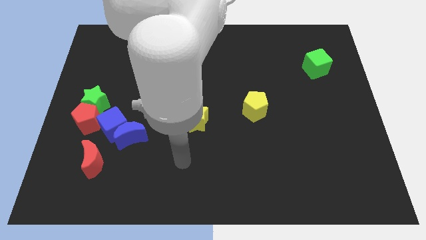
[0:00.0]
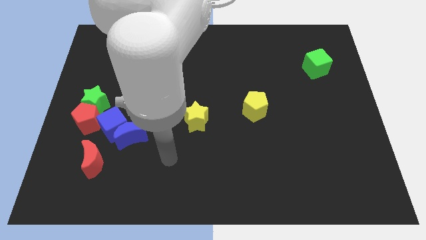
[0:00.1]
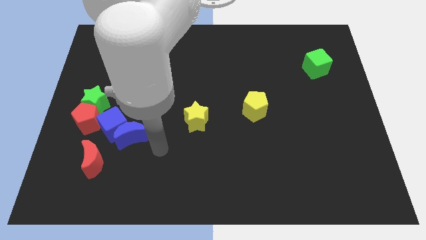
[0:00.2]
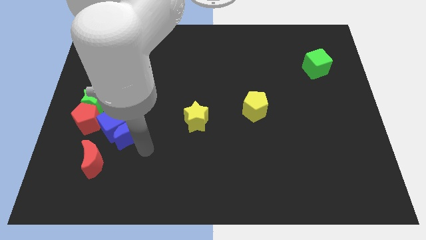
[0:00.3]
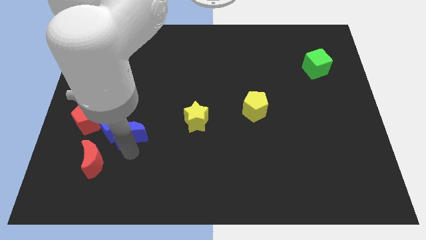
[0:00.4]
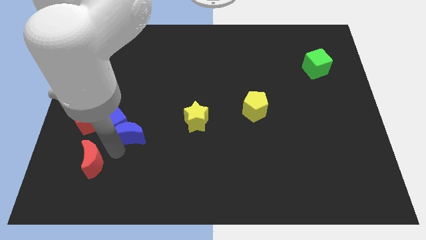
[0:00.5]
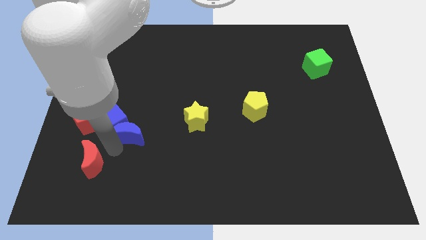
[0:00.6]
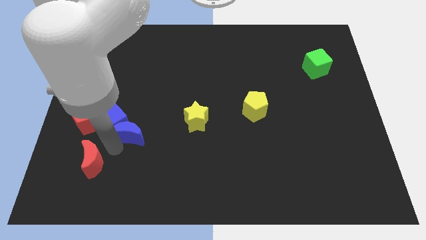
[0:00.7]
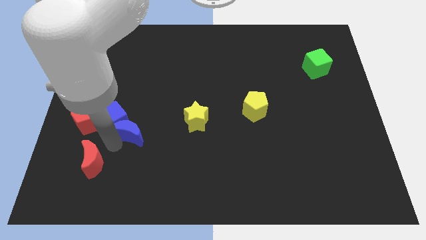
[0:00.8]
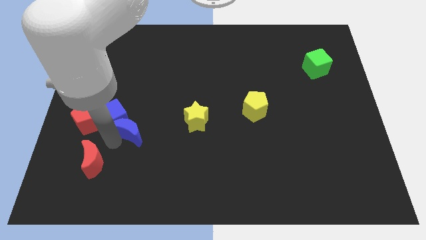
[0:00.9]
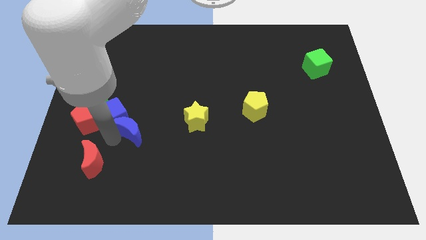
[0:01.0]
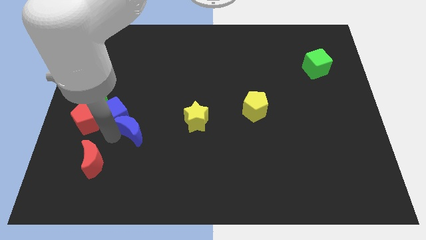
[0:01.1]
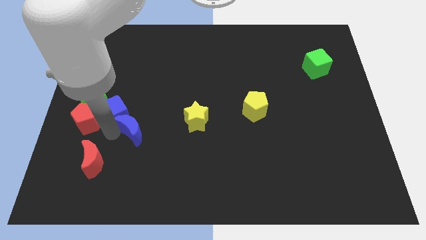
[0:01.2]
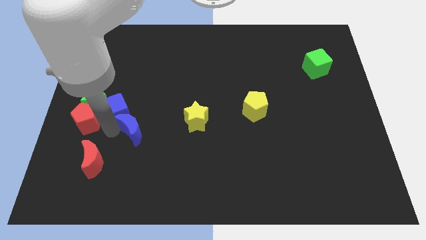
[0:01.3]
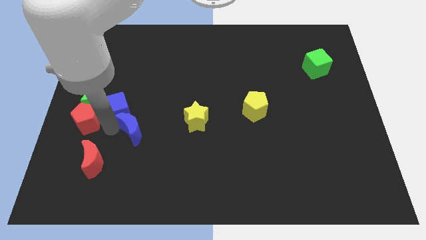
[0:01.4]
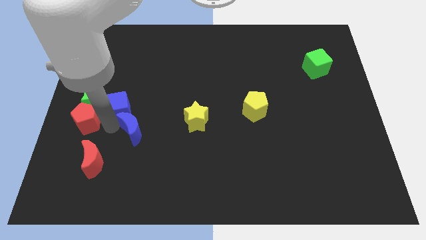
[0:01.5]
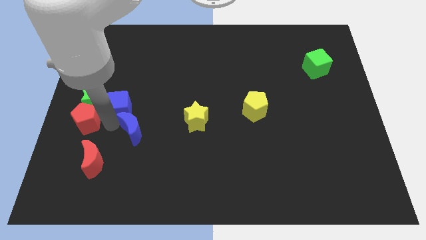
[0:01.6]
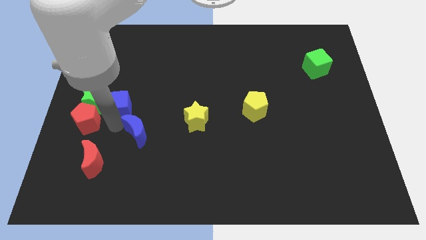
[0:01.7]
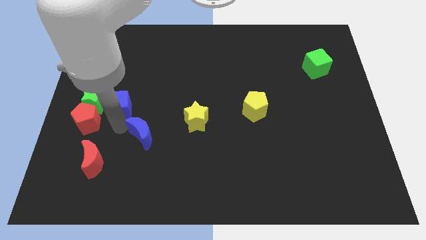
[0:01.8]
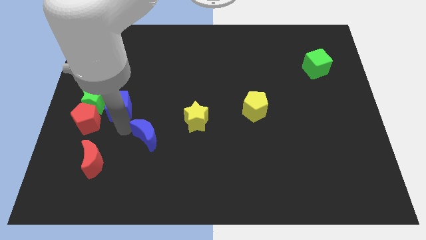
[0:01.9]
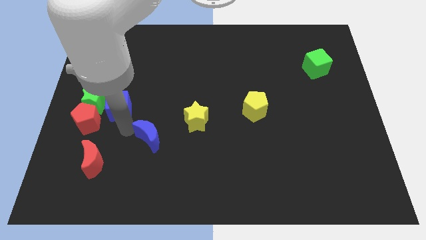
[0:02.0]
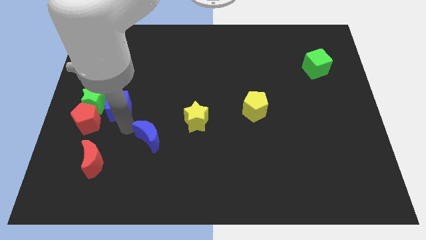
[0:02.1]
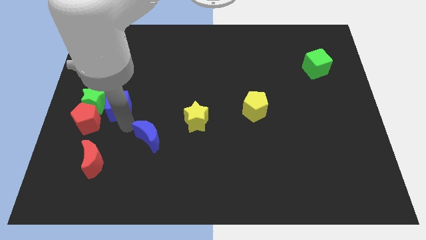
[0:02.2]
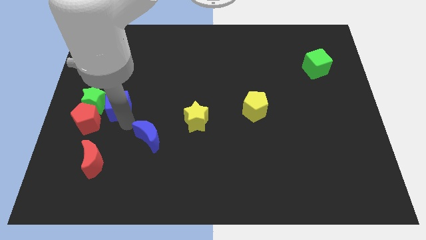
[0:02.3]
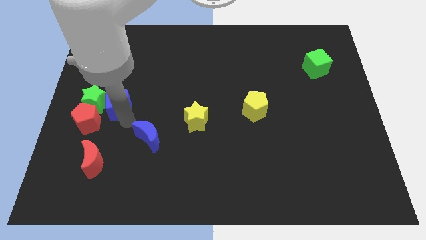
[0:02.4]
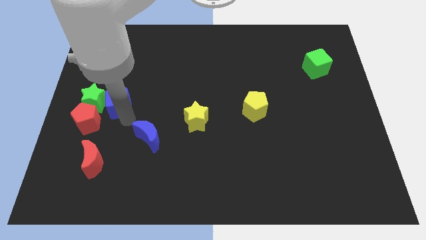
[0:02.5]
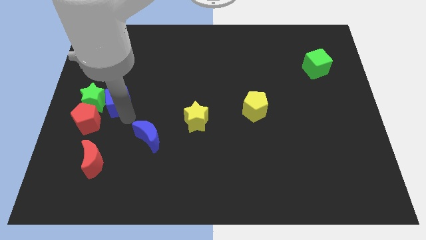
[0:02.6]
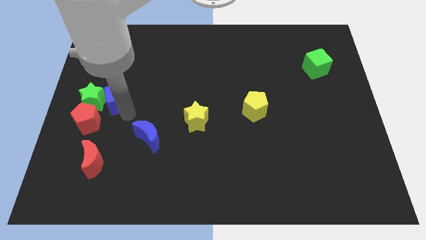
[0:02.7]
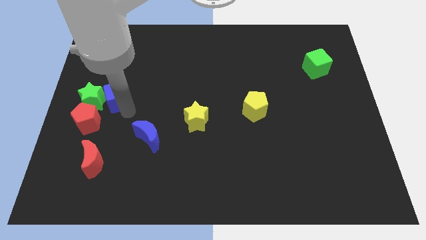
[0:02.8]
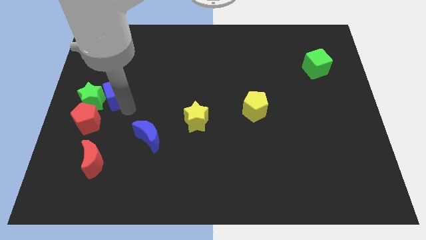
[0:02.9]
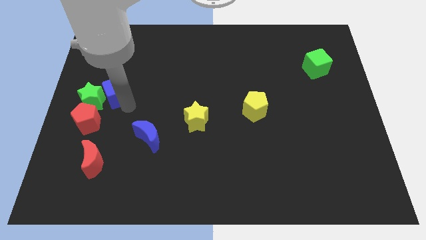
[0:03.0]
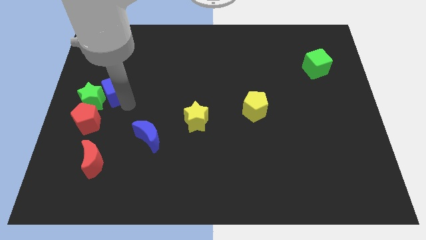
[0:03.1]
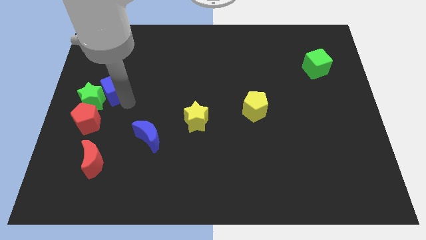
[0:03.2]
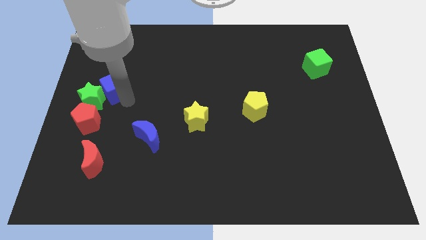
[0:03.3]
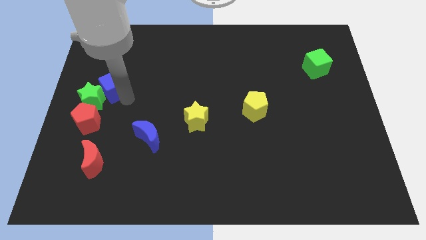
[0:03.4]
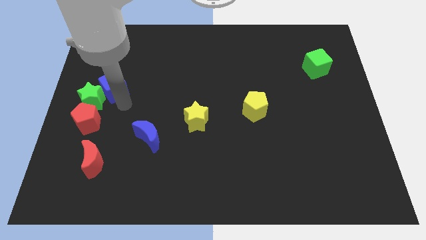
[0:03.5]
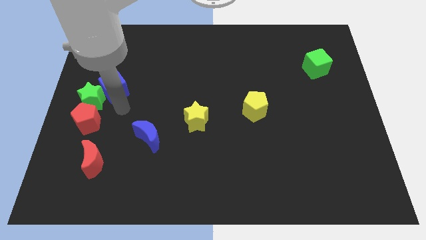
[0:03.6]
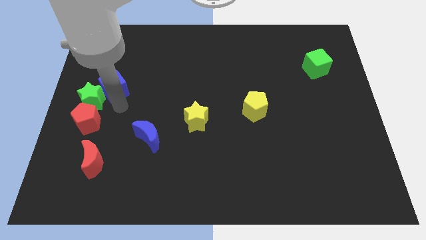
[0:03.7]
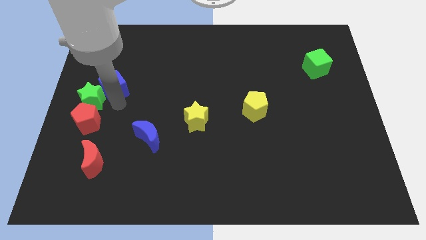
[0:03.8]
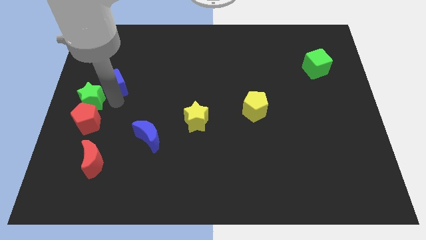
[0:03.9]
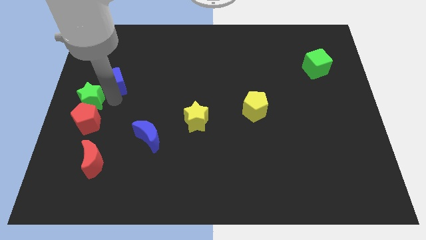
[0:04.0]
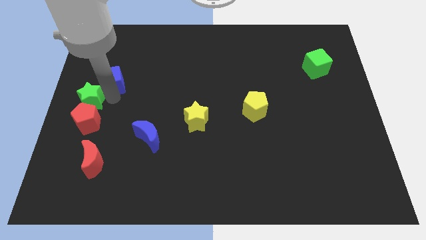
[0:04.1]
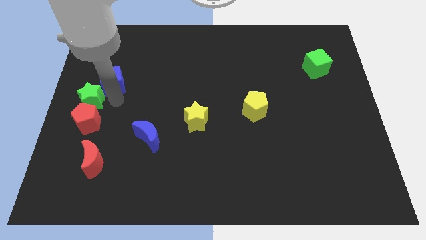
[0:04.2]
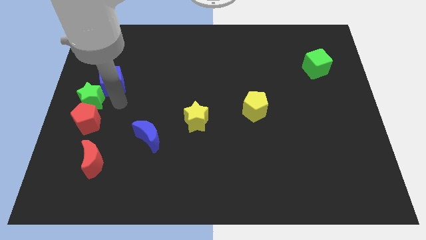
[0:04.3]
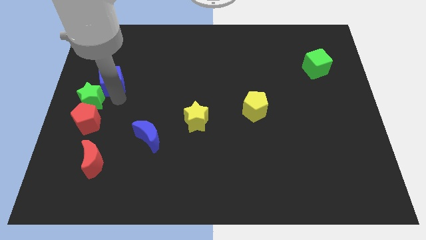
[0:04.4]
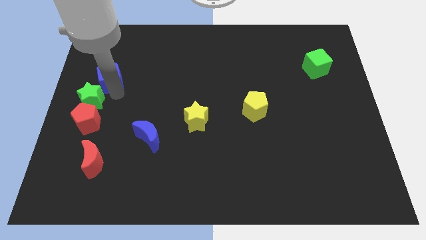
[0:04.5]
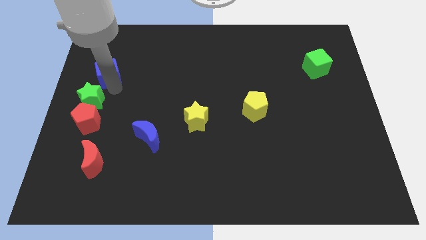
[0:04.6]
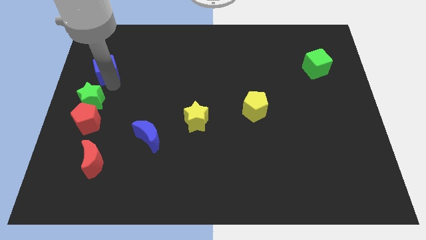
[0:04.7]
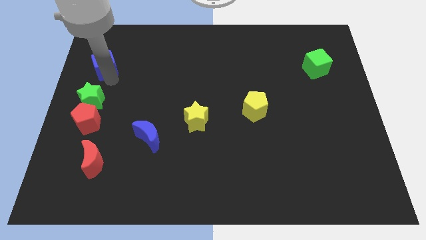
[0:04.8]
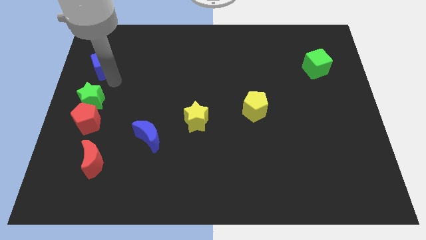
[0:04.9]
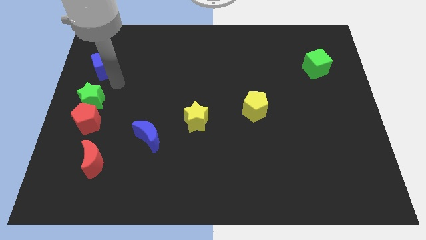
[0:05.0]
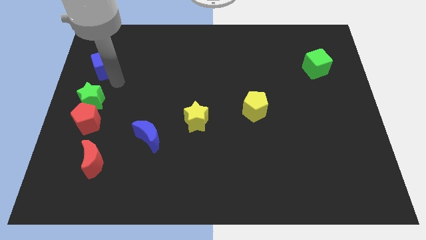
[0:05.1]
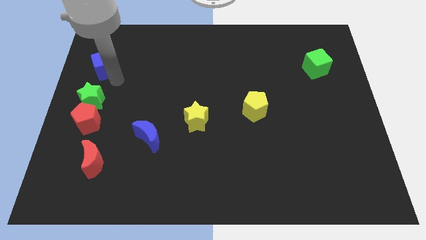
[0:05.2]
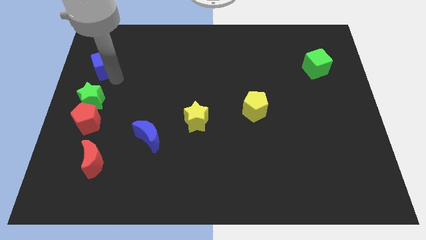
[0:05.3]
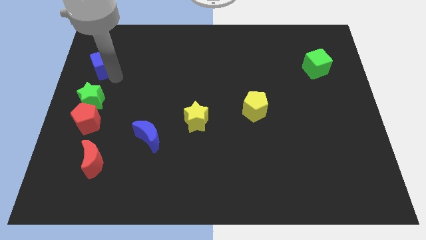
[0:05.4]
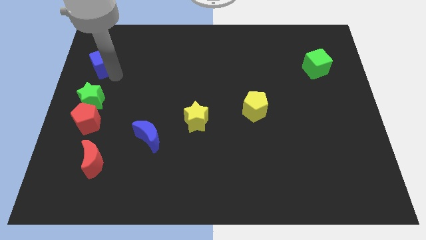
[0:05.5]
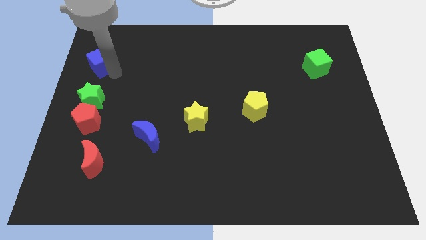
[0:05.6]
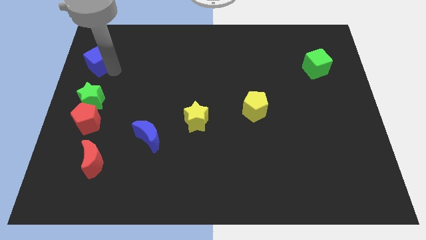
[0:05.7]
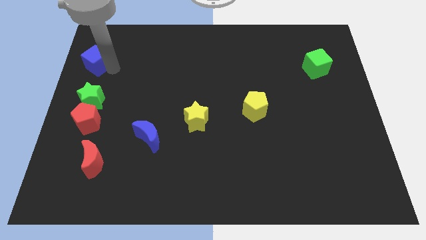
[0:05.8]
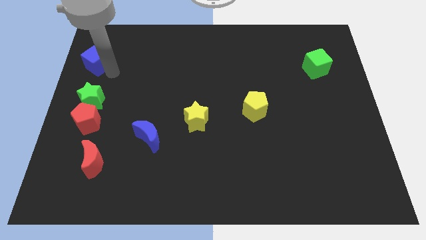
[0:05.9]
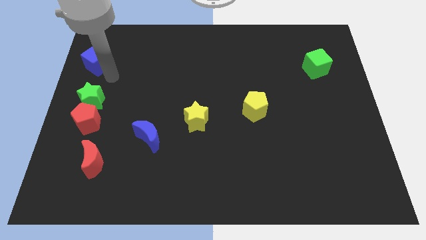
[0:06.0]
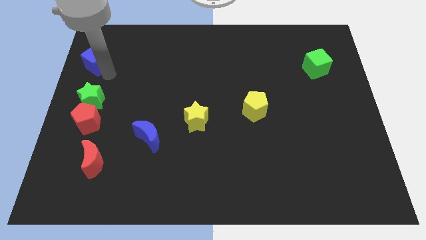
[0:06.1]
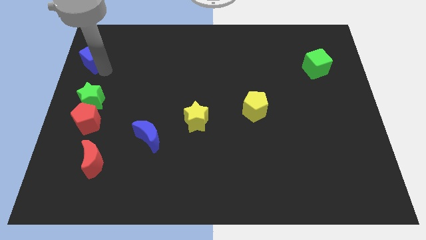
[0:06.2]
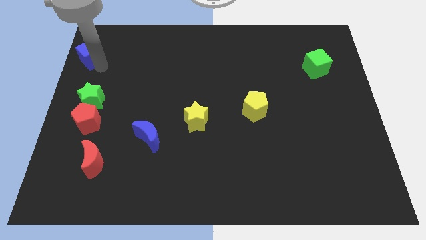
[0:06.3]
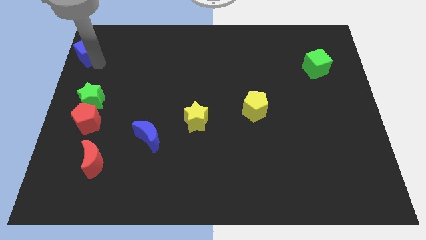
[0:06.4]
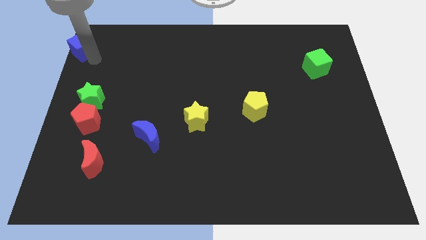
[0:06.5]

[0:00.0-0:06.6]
push the blue cube to the upper left corner

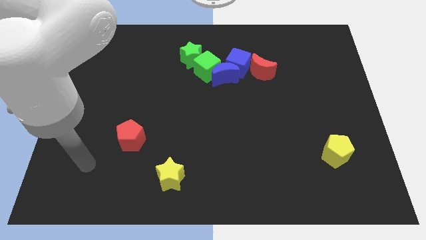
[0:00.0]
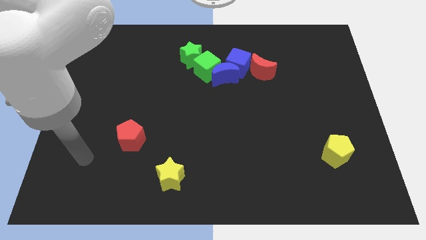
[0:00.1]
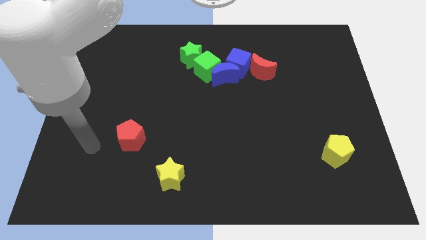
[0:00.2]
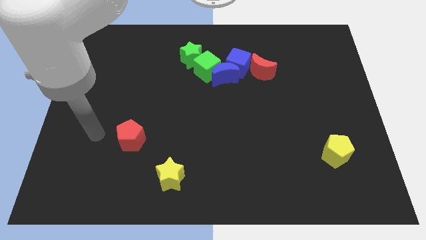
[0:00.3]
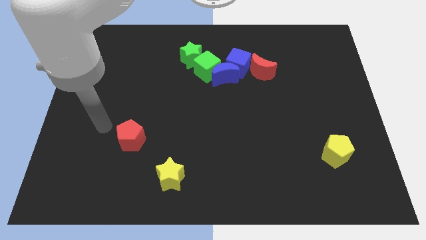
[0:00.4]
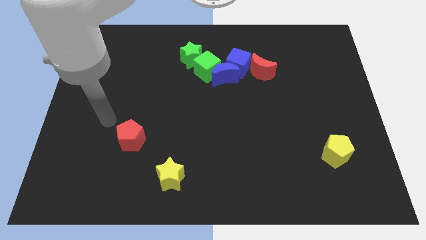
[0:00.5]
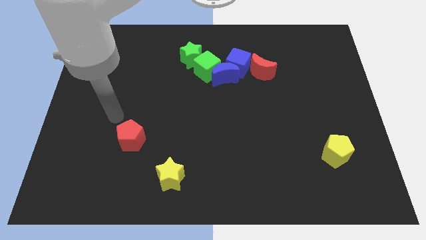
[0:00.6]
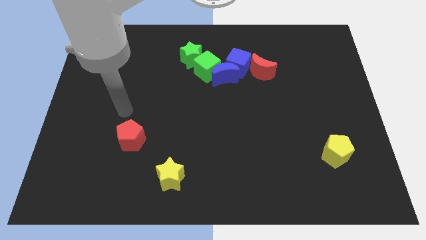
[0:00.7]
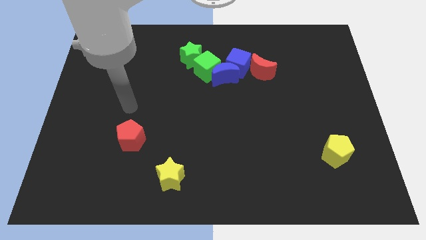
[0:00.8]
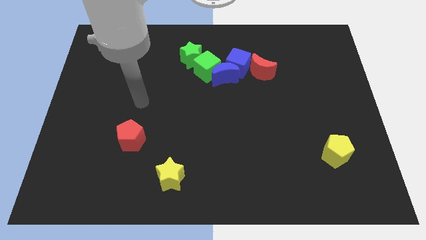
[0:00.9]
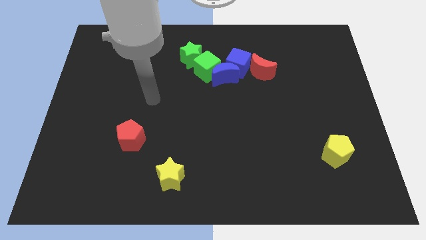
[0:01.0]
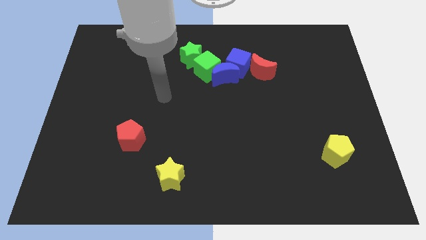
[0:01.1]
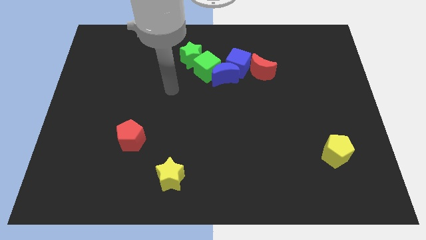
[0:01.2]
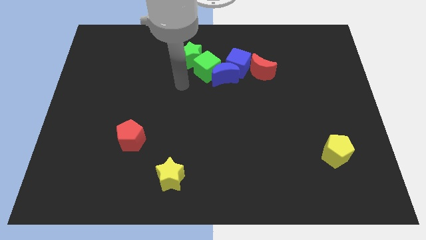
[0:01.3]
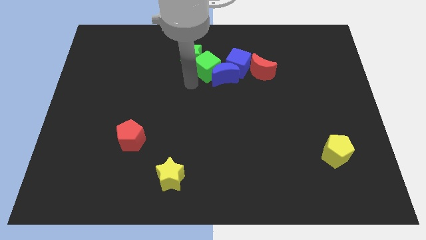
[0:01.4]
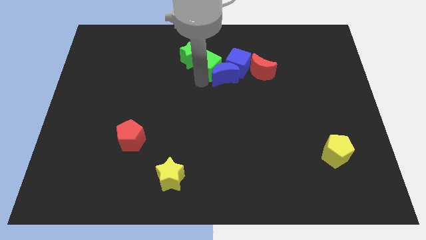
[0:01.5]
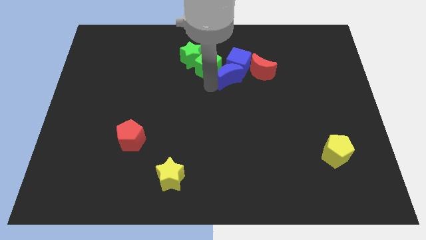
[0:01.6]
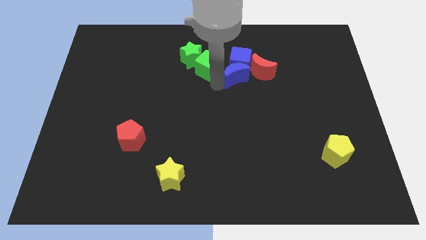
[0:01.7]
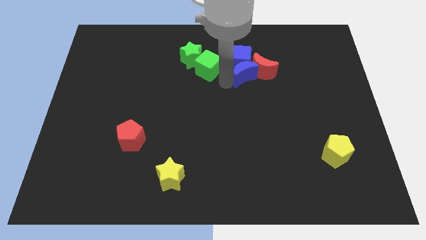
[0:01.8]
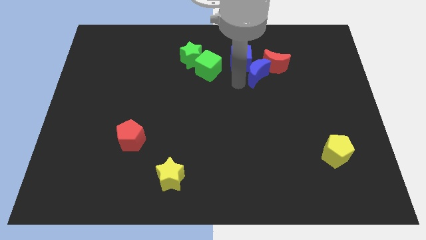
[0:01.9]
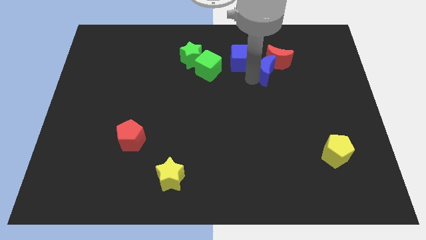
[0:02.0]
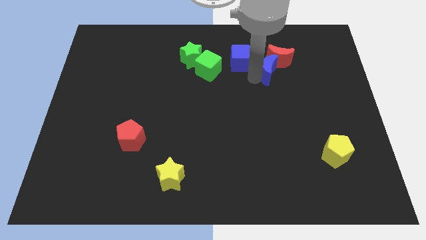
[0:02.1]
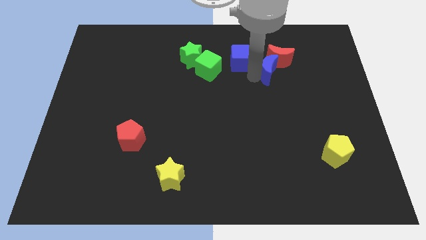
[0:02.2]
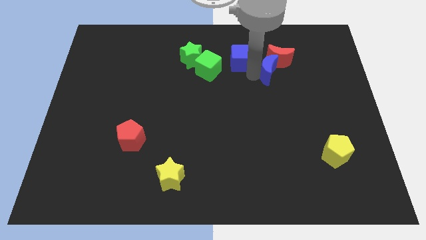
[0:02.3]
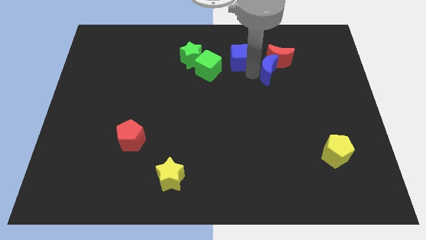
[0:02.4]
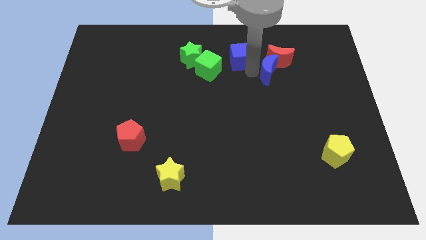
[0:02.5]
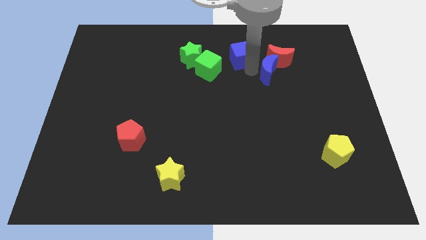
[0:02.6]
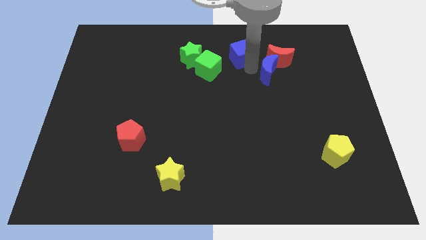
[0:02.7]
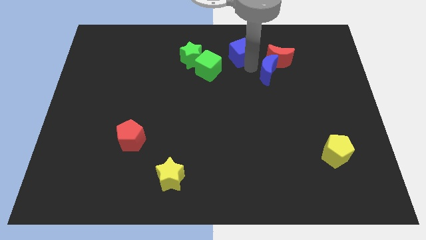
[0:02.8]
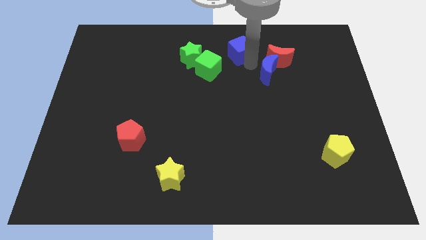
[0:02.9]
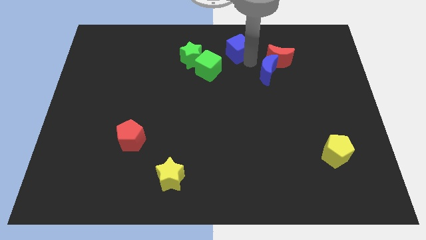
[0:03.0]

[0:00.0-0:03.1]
slide the blue cube to the towards your base
